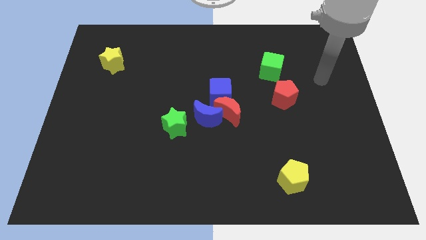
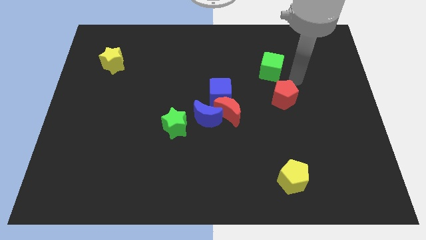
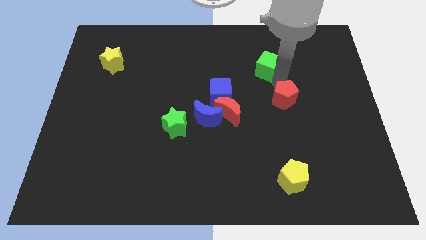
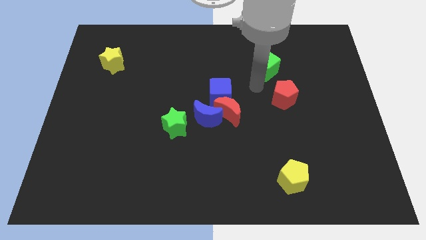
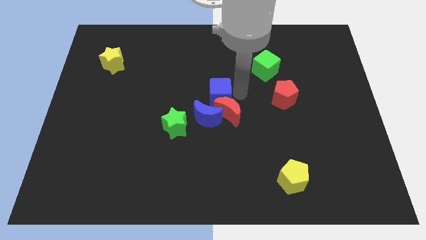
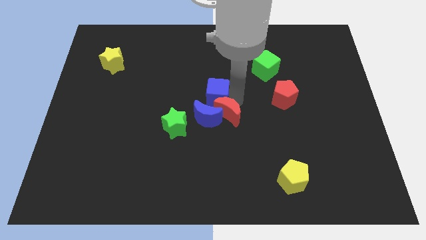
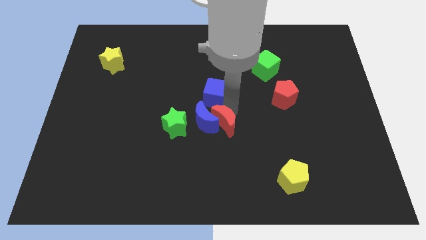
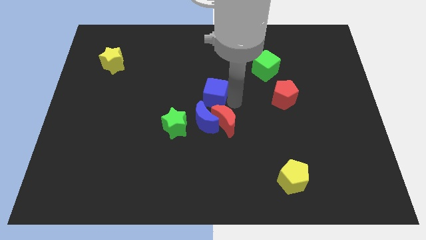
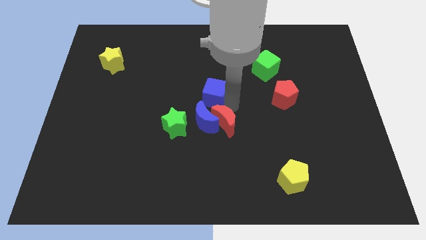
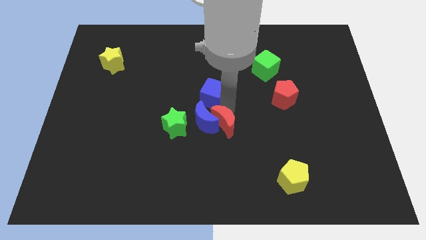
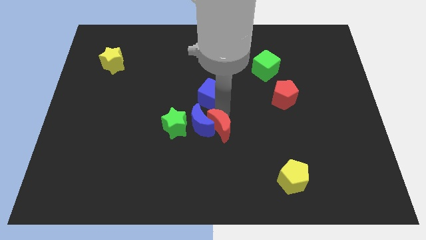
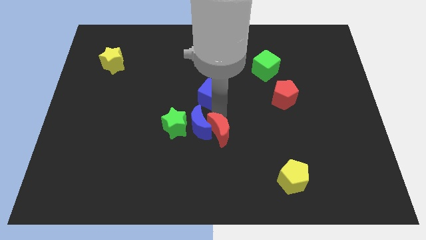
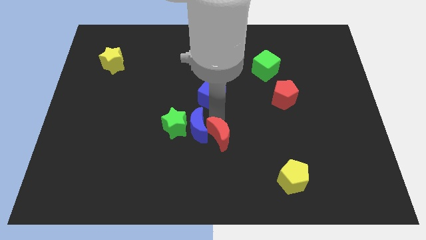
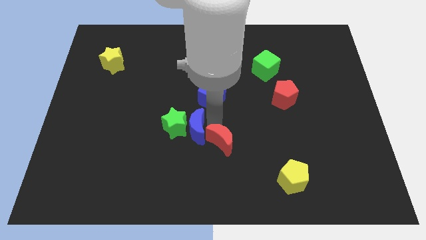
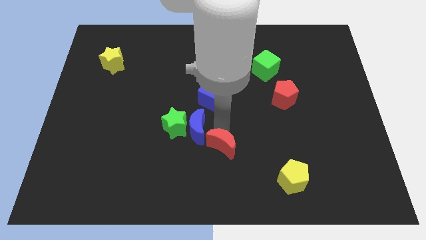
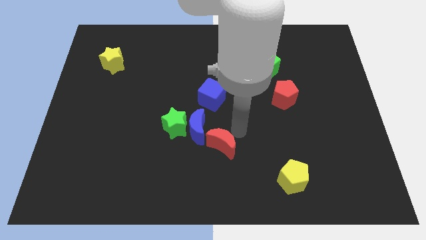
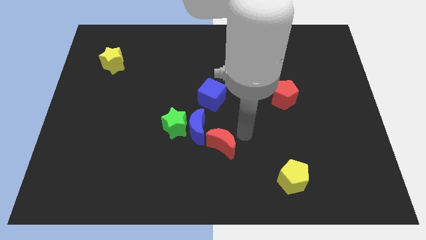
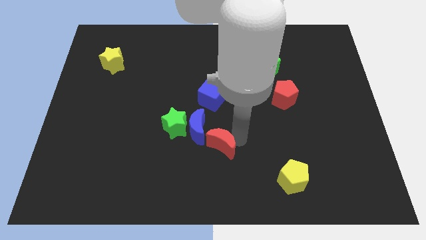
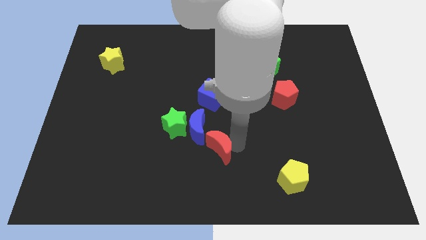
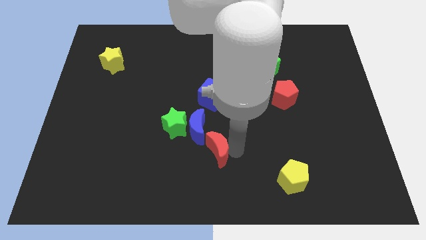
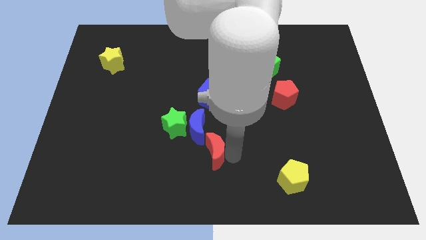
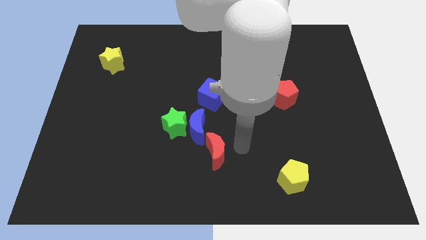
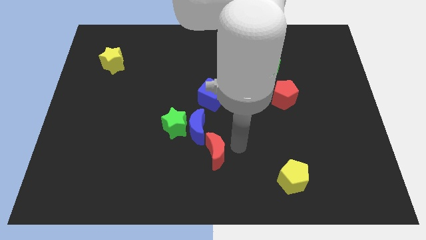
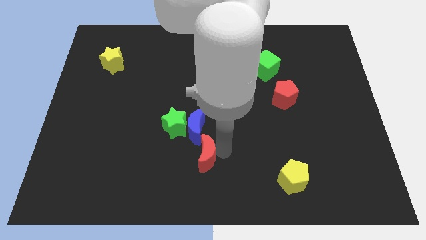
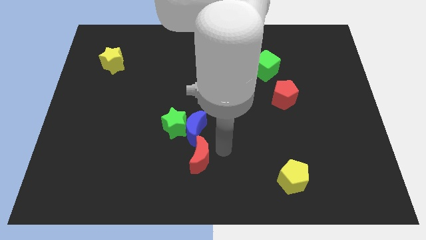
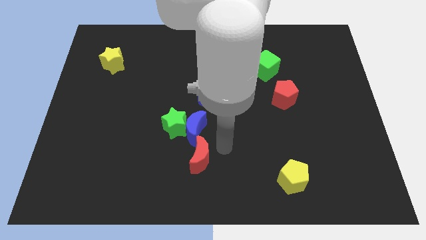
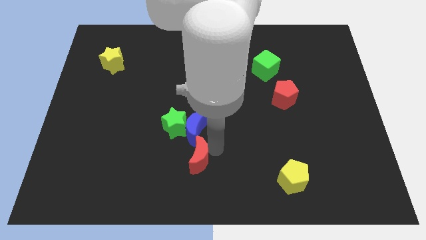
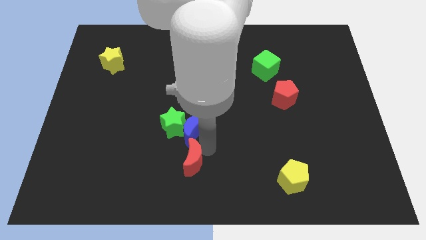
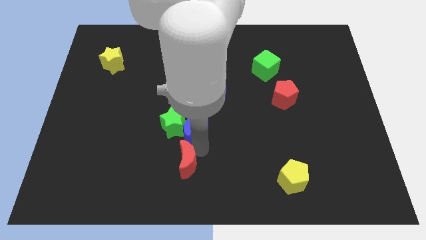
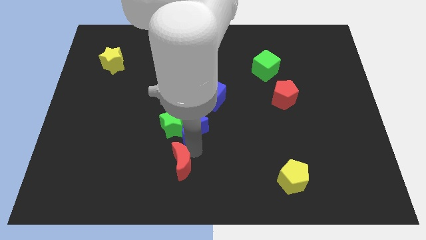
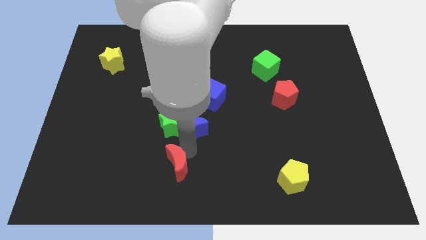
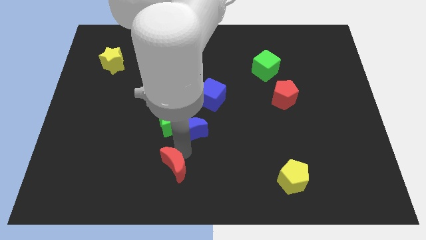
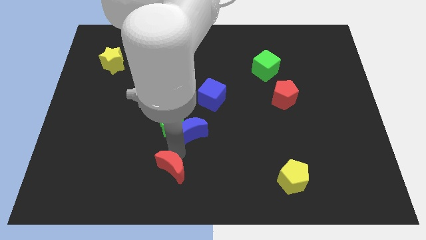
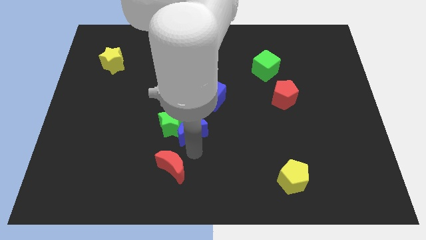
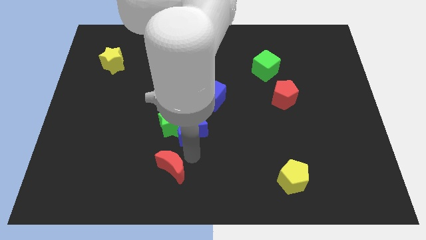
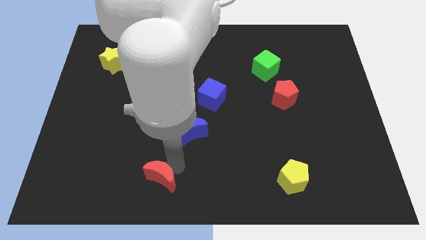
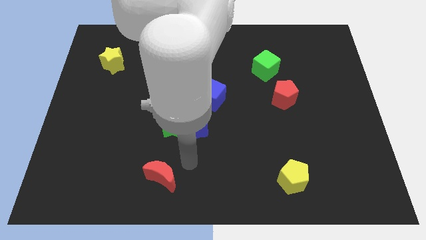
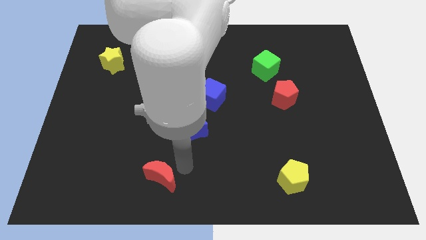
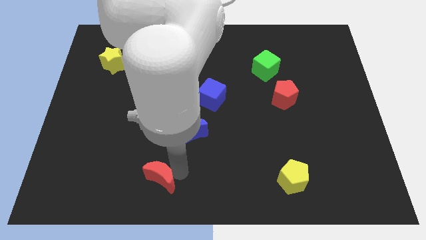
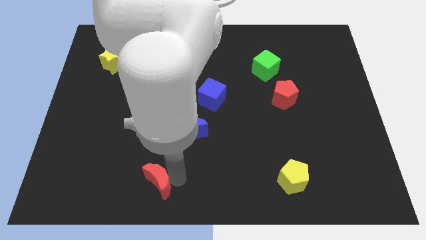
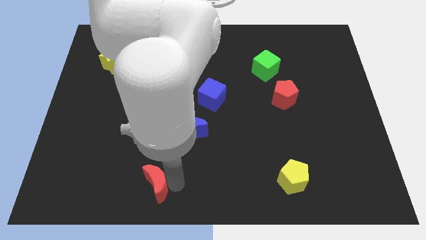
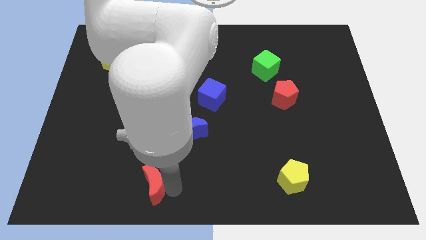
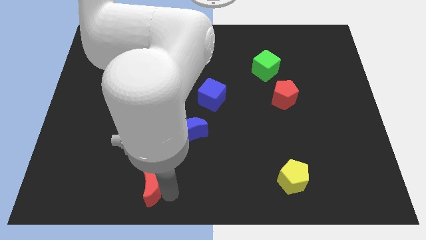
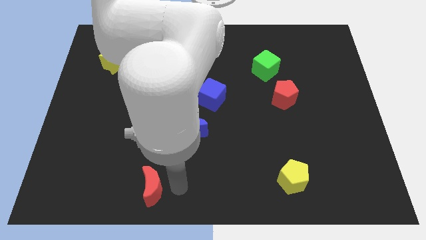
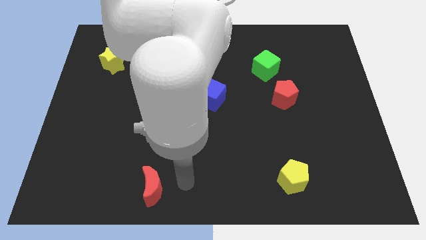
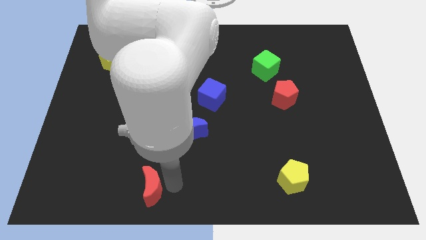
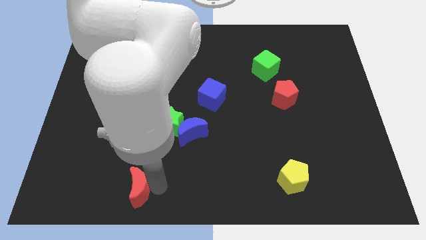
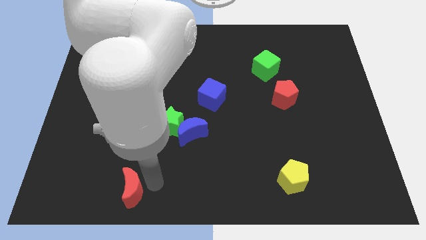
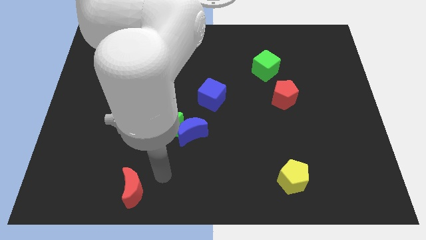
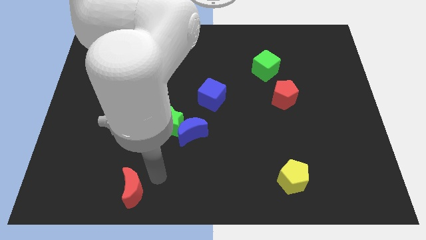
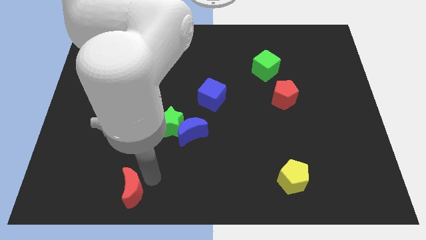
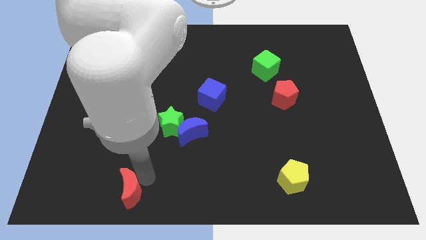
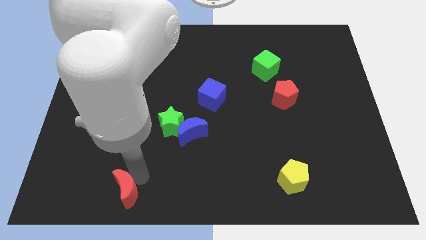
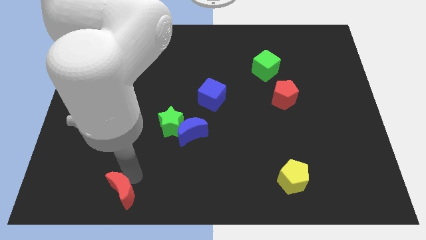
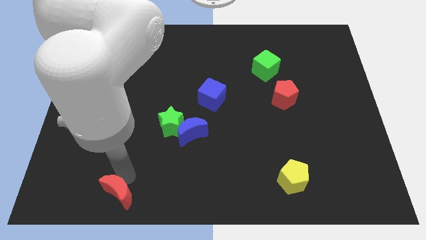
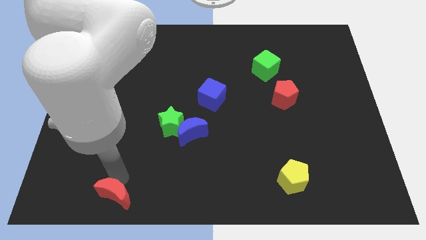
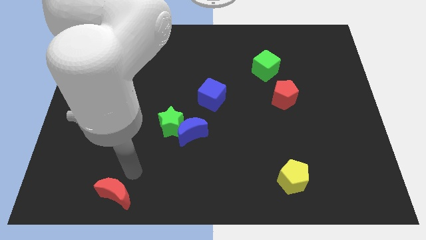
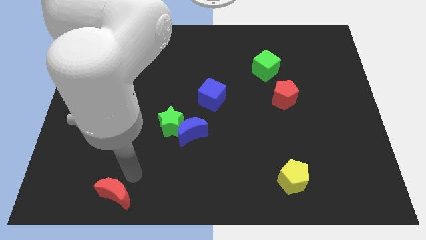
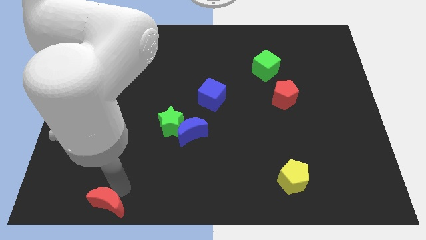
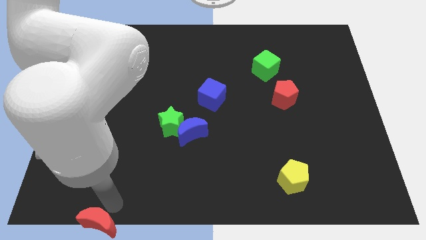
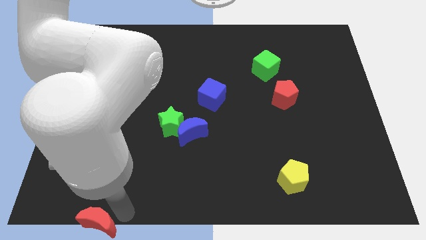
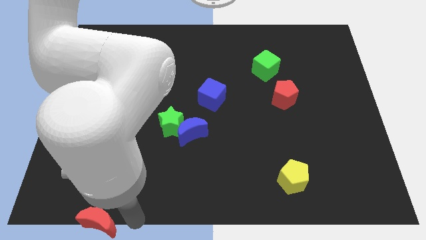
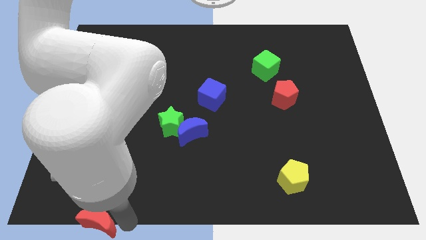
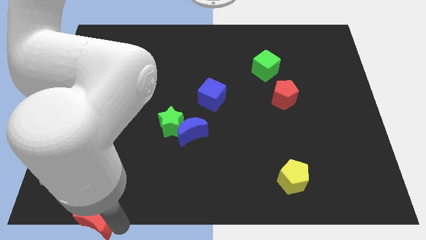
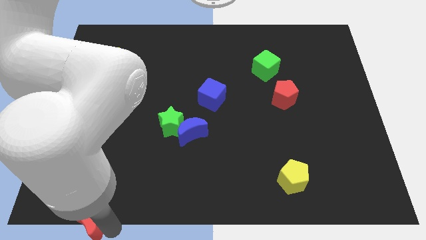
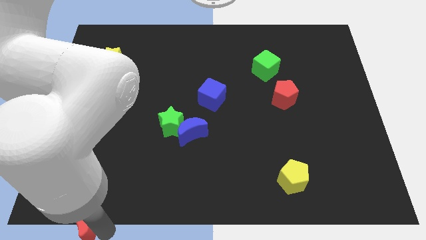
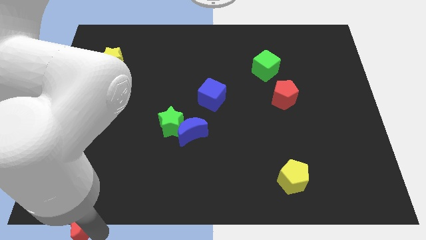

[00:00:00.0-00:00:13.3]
put the red moon to the bottom left of the board
